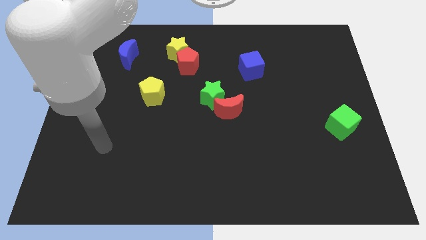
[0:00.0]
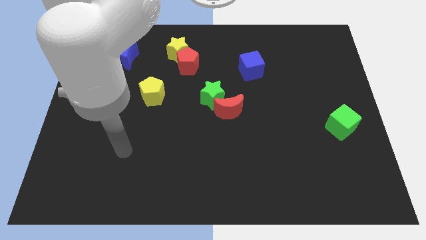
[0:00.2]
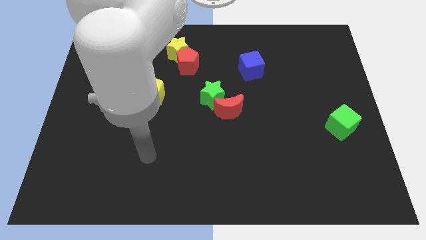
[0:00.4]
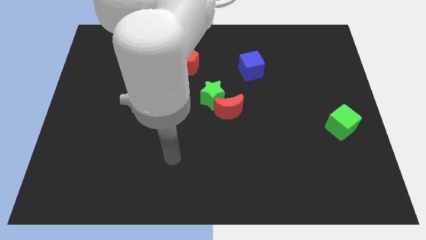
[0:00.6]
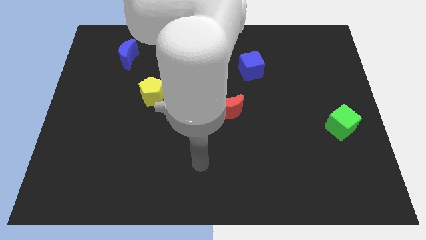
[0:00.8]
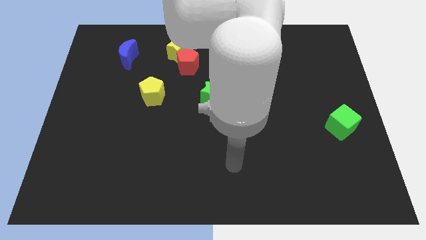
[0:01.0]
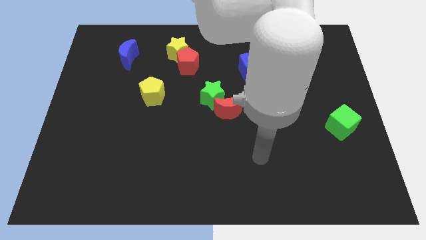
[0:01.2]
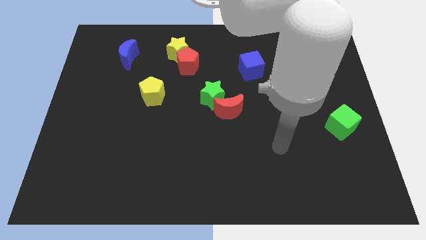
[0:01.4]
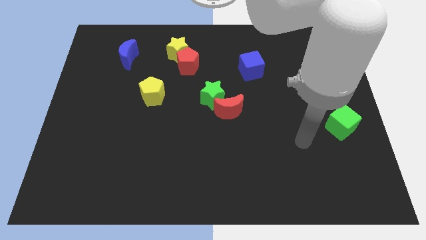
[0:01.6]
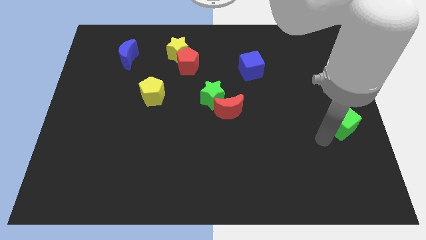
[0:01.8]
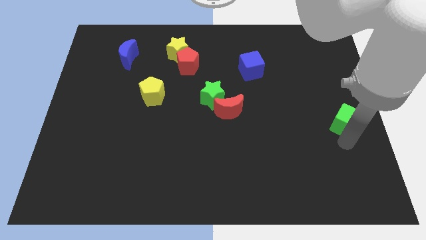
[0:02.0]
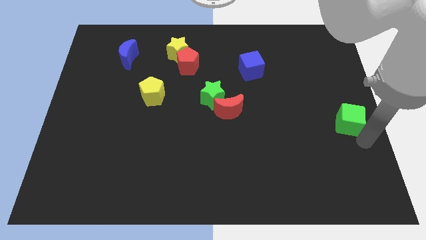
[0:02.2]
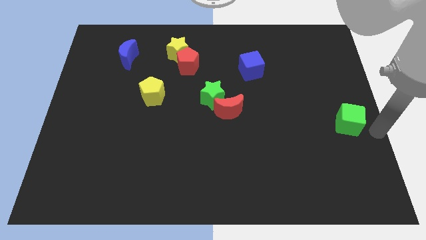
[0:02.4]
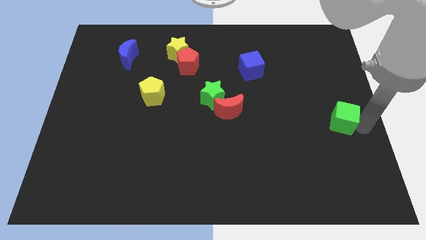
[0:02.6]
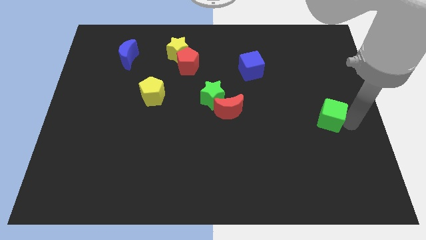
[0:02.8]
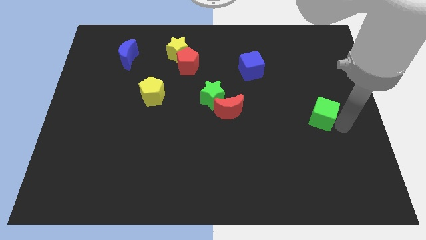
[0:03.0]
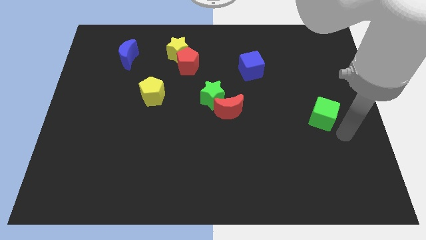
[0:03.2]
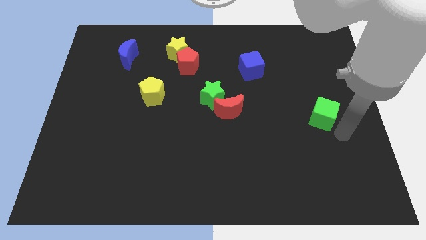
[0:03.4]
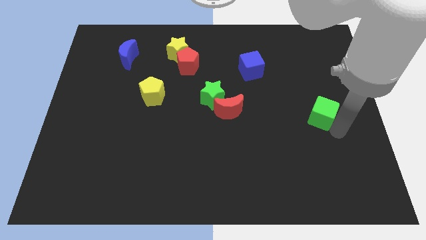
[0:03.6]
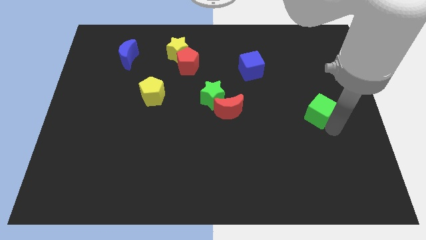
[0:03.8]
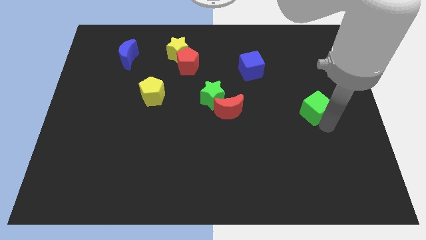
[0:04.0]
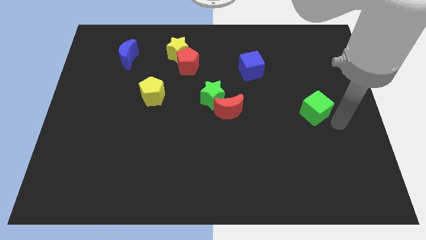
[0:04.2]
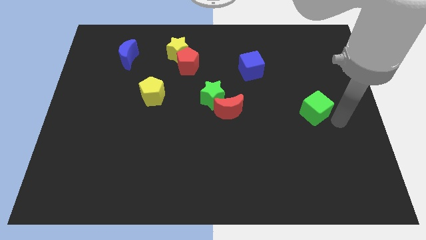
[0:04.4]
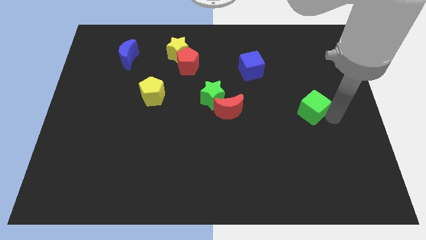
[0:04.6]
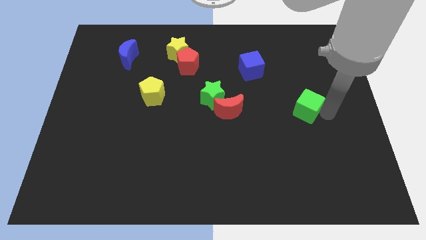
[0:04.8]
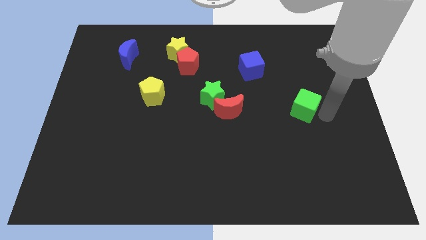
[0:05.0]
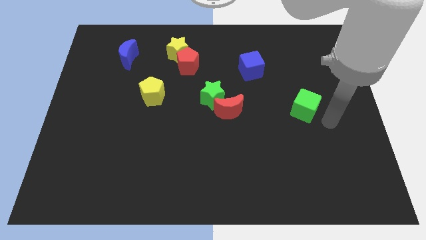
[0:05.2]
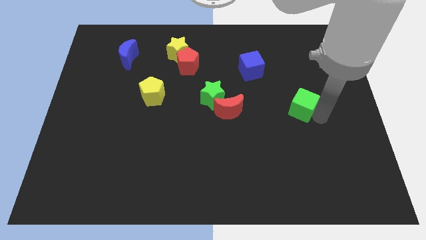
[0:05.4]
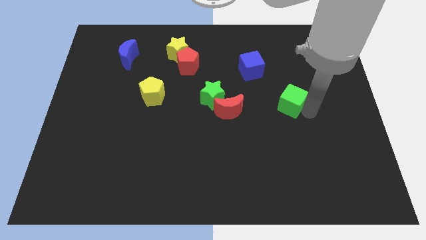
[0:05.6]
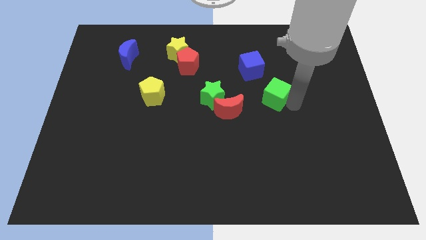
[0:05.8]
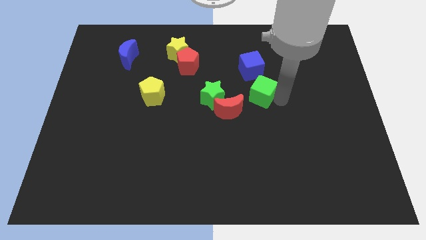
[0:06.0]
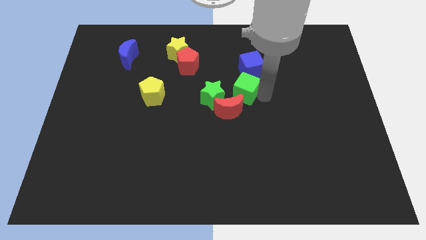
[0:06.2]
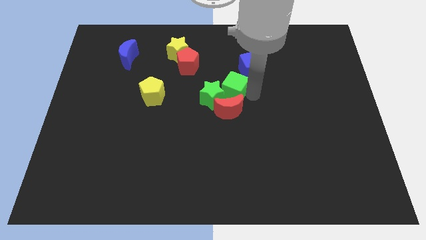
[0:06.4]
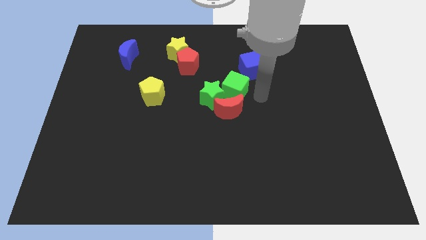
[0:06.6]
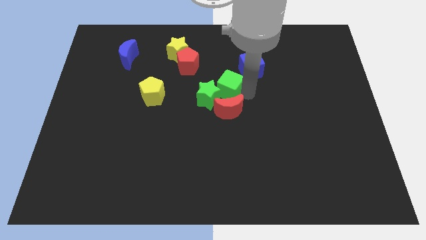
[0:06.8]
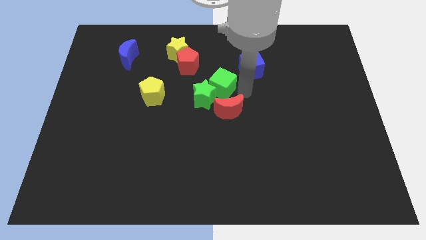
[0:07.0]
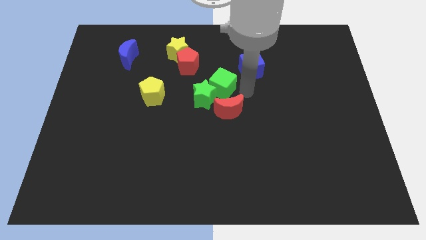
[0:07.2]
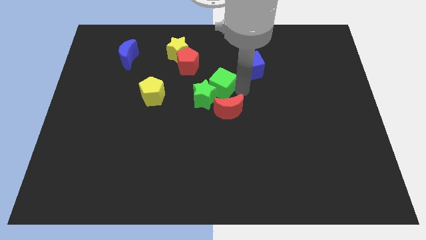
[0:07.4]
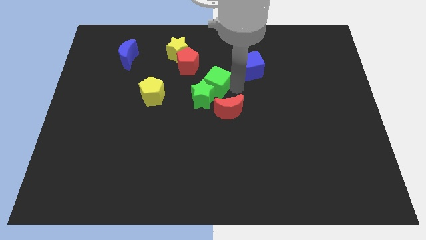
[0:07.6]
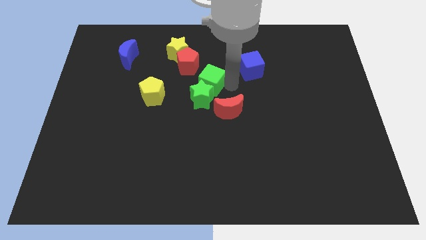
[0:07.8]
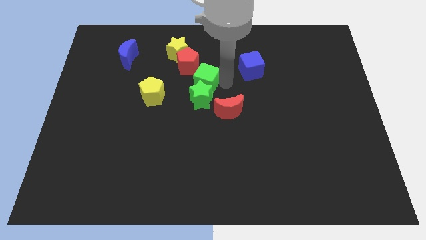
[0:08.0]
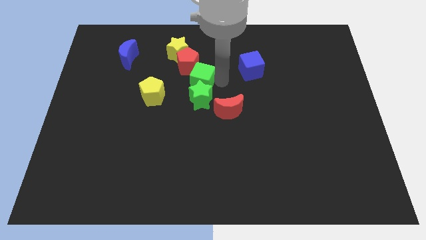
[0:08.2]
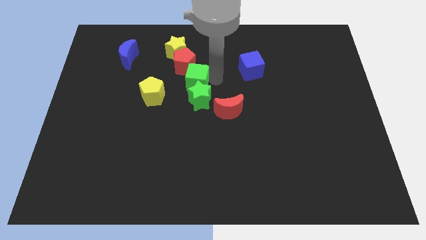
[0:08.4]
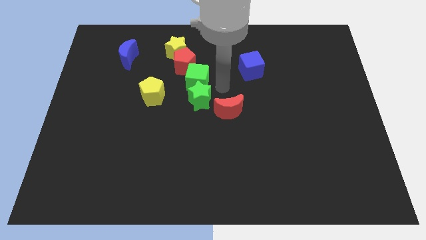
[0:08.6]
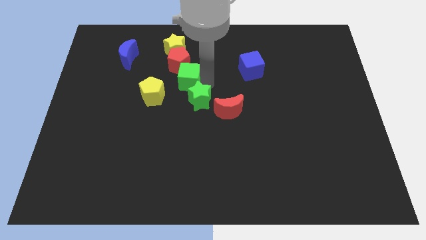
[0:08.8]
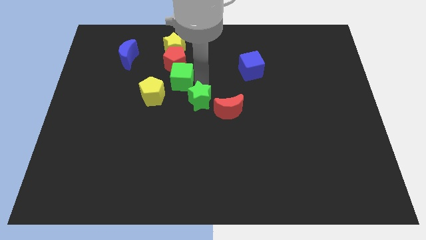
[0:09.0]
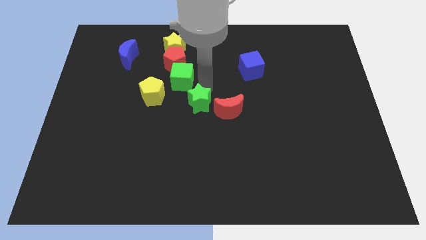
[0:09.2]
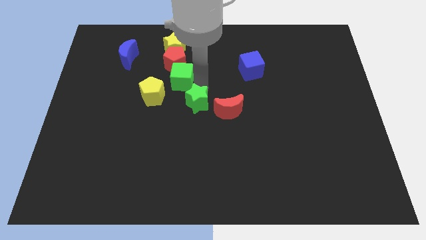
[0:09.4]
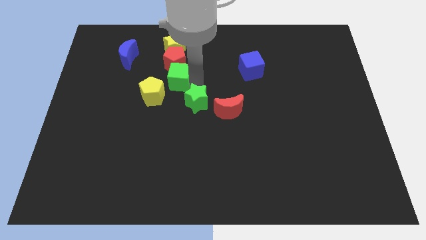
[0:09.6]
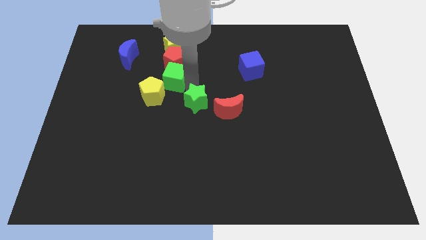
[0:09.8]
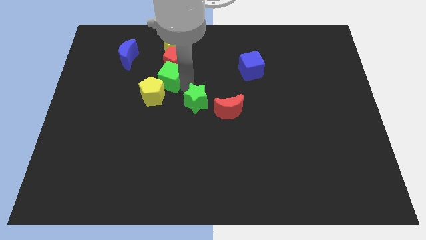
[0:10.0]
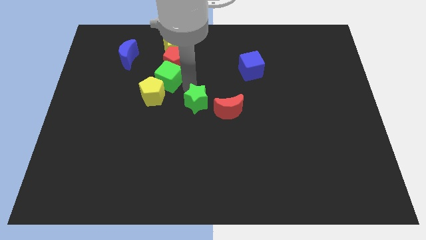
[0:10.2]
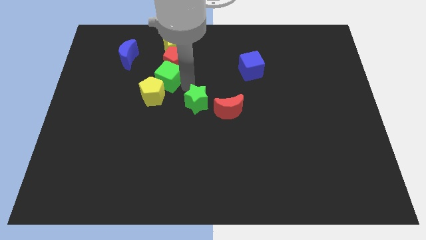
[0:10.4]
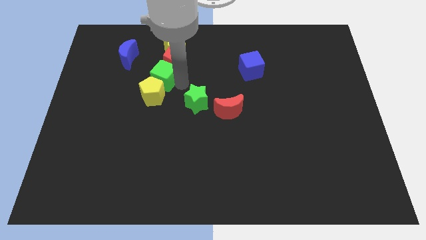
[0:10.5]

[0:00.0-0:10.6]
move the green cube diagonally down and to the right of the blue moon

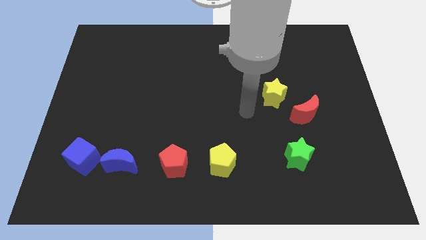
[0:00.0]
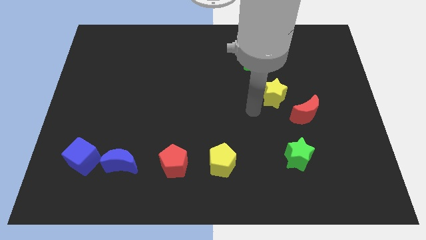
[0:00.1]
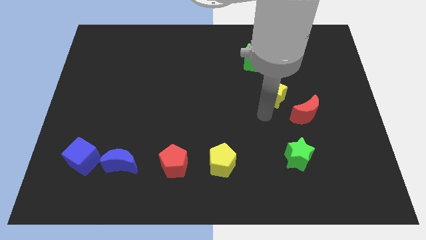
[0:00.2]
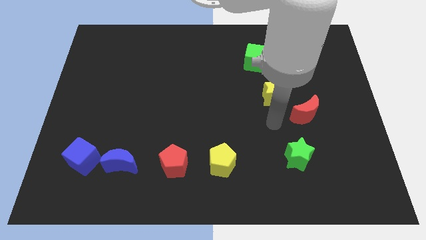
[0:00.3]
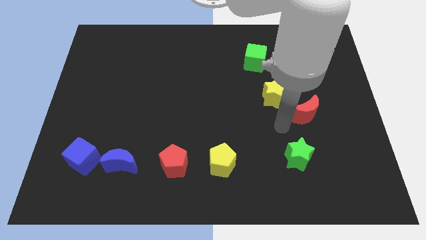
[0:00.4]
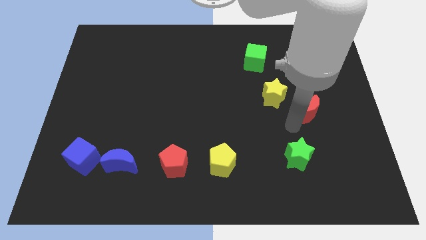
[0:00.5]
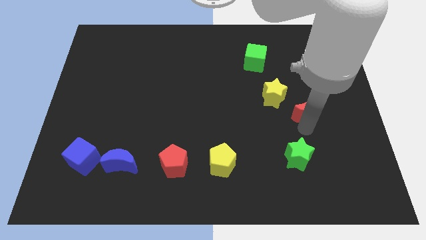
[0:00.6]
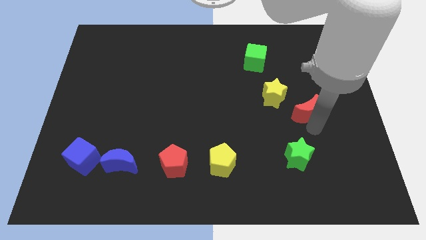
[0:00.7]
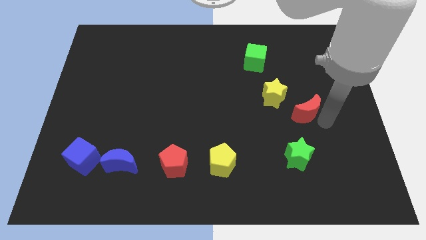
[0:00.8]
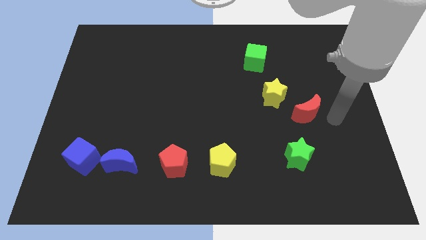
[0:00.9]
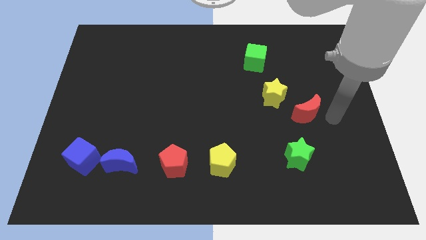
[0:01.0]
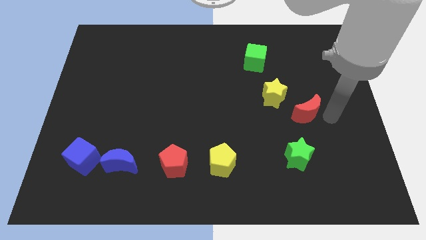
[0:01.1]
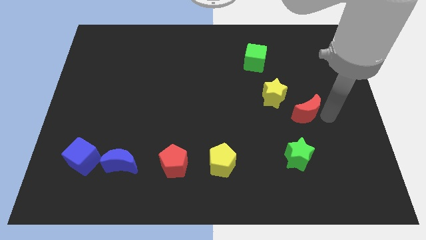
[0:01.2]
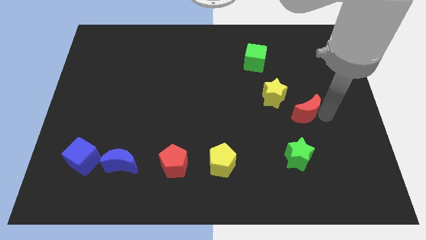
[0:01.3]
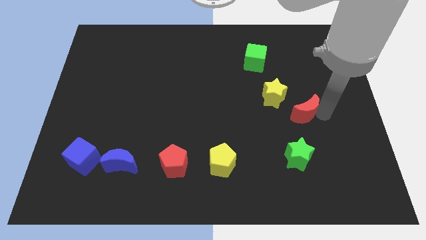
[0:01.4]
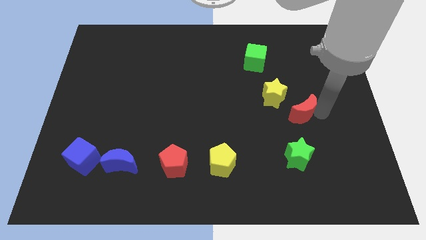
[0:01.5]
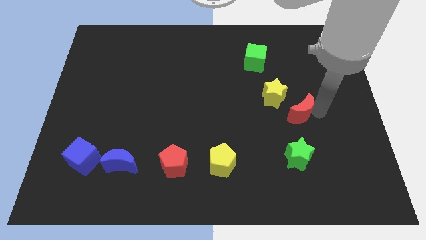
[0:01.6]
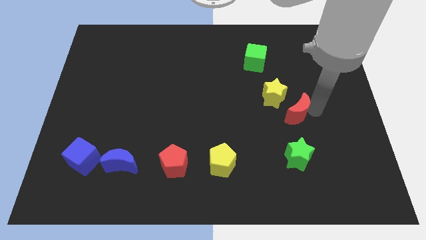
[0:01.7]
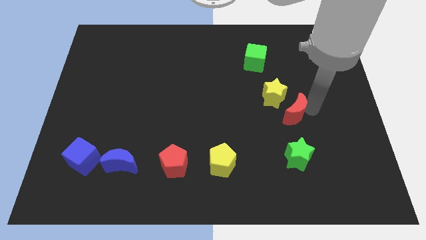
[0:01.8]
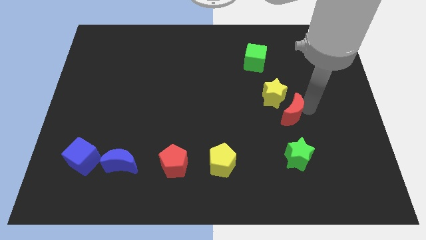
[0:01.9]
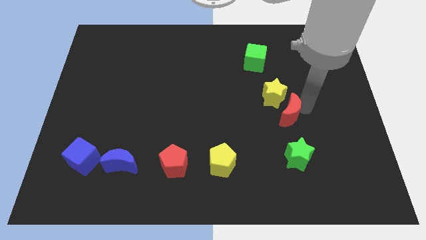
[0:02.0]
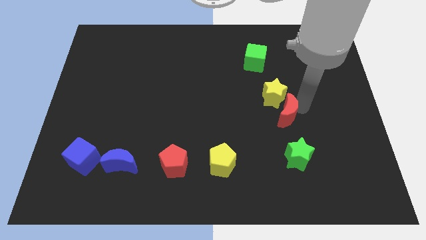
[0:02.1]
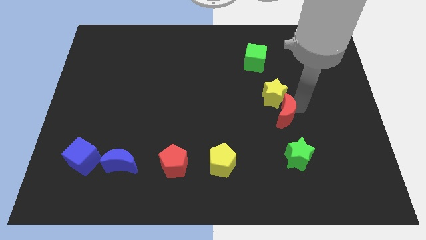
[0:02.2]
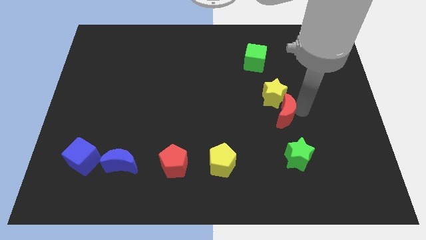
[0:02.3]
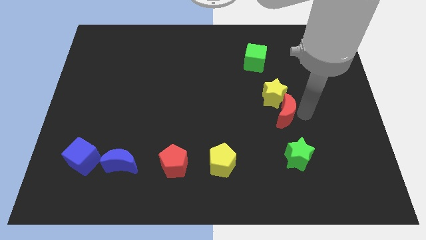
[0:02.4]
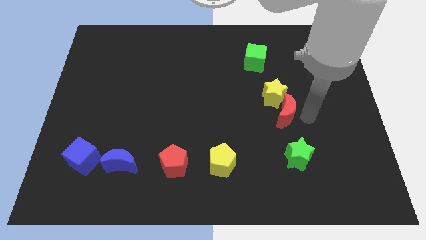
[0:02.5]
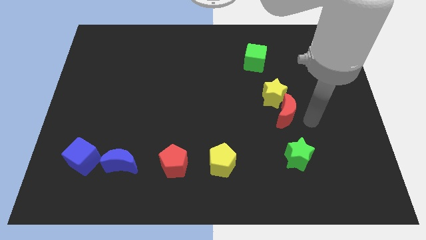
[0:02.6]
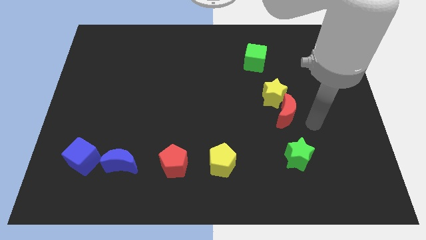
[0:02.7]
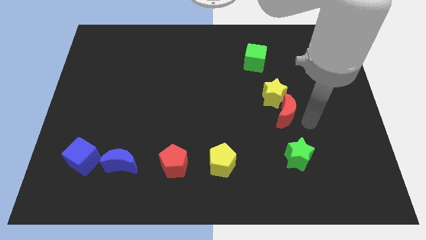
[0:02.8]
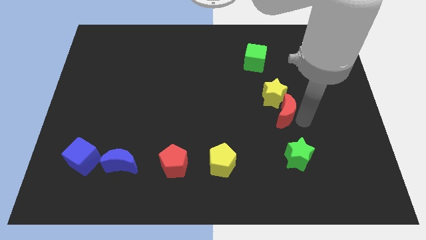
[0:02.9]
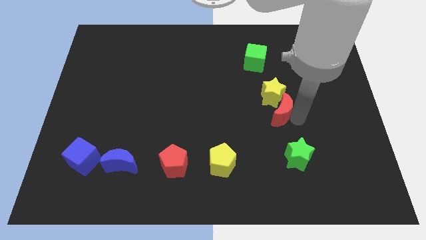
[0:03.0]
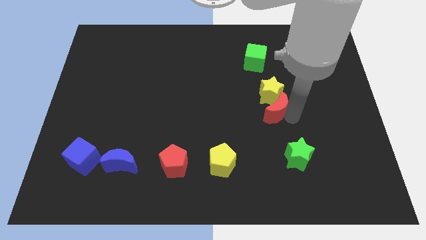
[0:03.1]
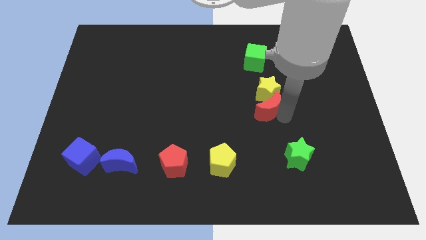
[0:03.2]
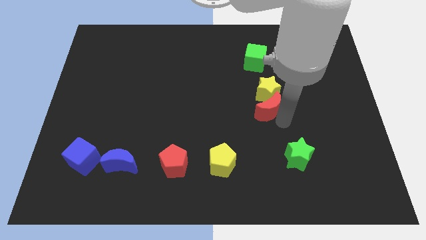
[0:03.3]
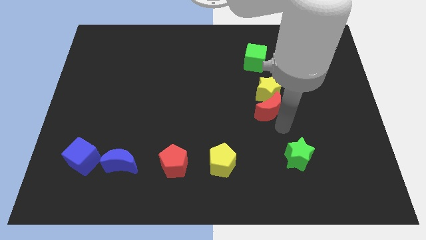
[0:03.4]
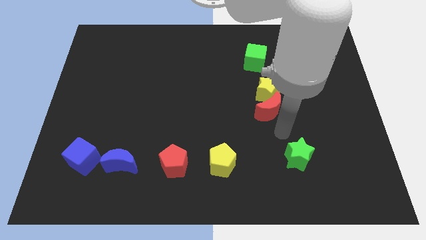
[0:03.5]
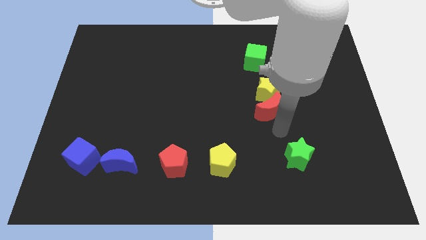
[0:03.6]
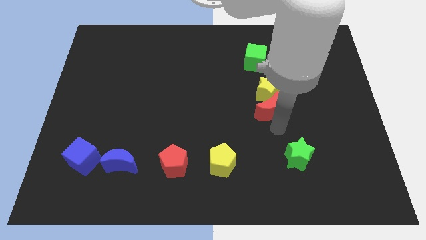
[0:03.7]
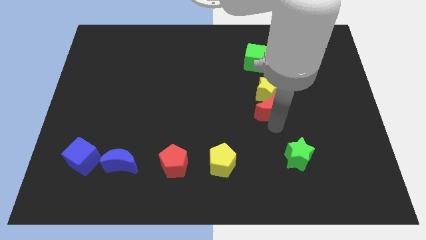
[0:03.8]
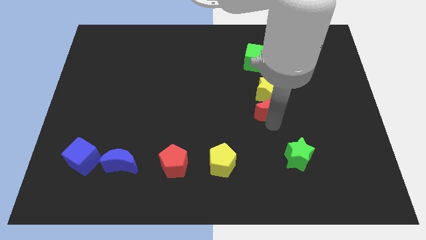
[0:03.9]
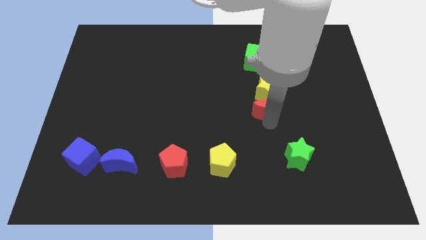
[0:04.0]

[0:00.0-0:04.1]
push the red moon below the green cube
